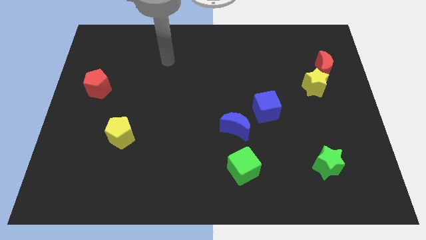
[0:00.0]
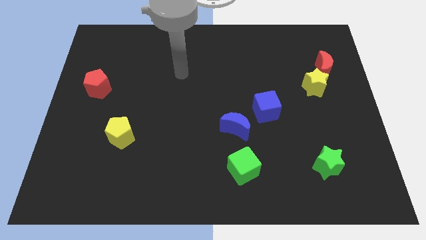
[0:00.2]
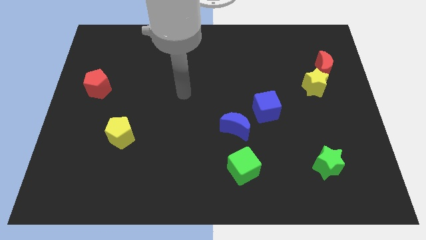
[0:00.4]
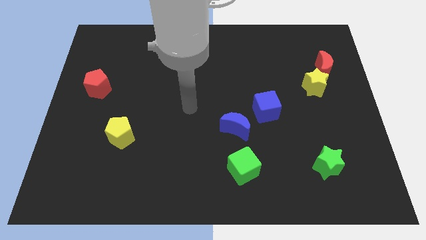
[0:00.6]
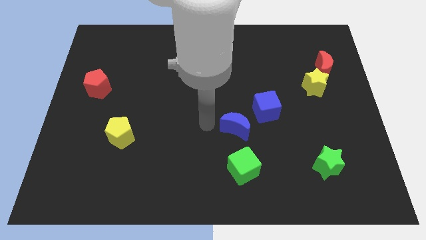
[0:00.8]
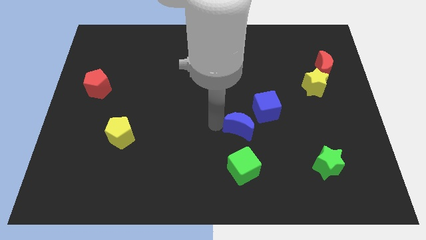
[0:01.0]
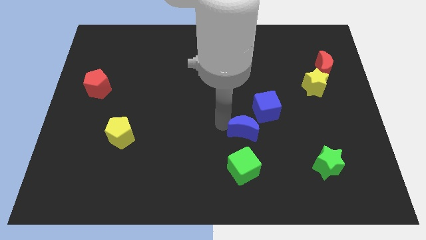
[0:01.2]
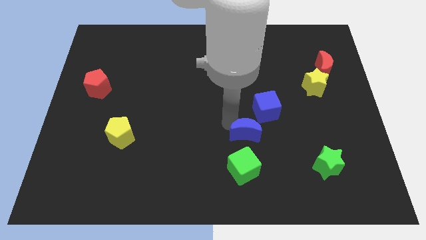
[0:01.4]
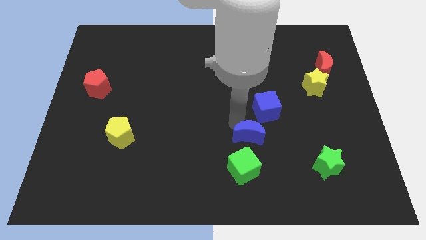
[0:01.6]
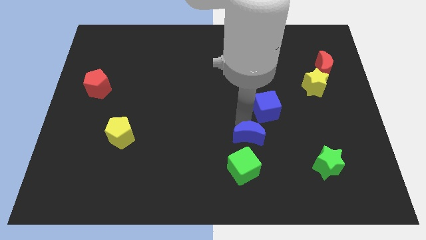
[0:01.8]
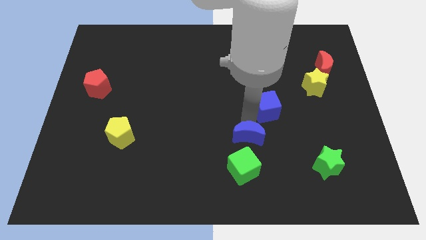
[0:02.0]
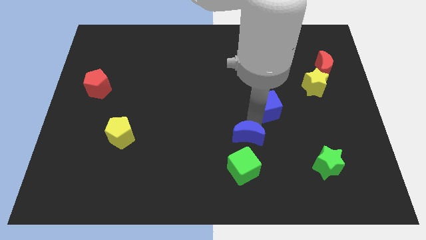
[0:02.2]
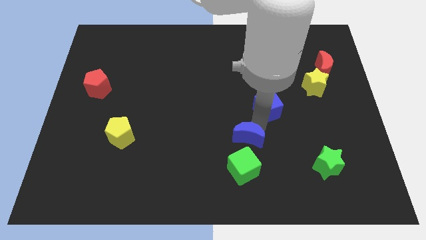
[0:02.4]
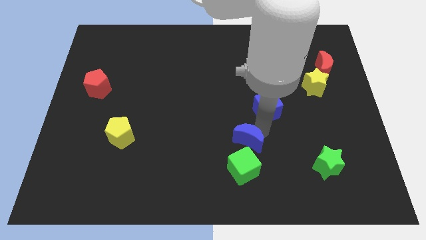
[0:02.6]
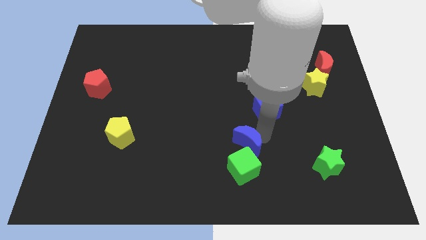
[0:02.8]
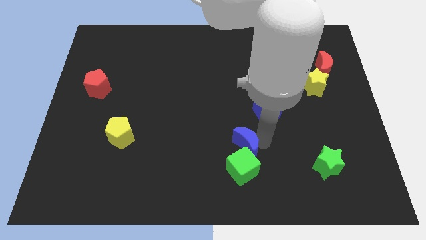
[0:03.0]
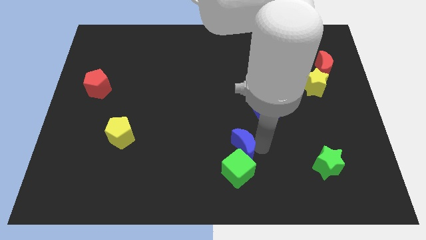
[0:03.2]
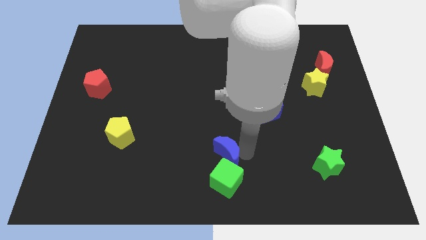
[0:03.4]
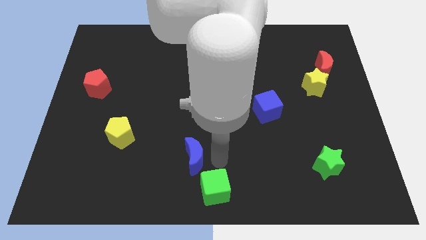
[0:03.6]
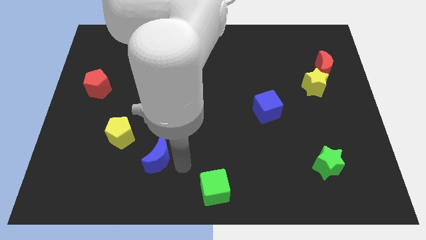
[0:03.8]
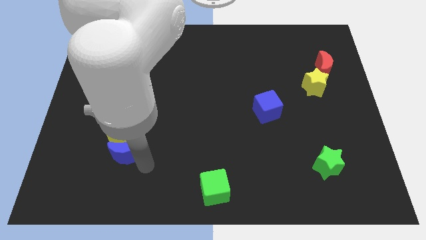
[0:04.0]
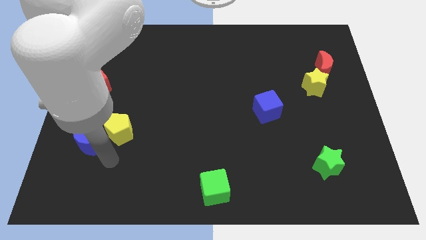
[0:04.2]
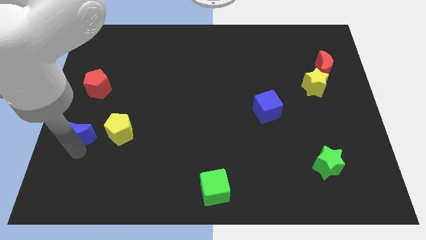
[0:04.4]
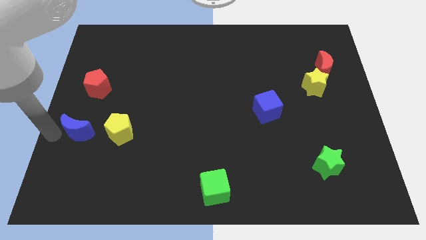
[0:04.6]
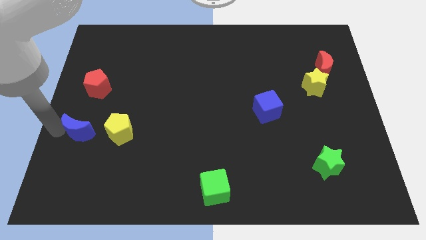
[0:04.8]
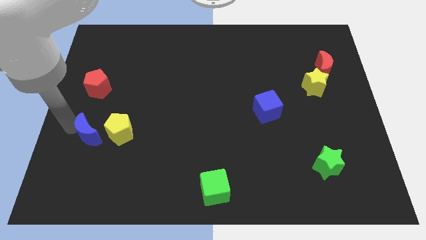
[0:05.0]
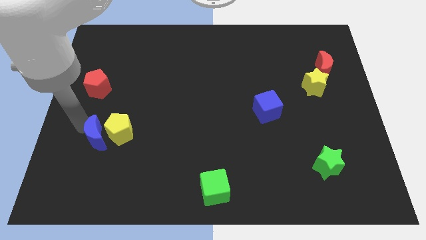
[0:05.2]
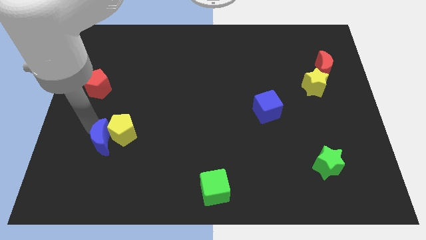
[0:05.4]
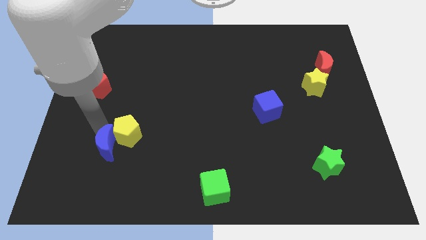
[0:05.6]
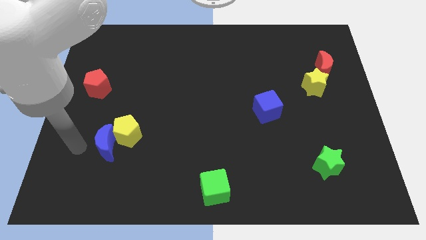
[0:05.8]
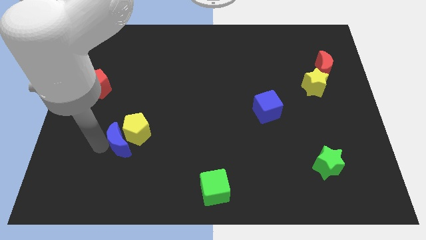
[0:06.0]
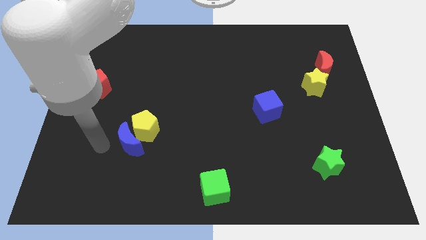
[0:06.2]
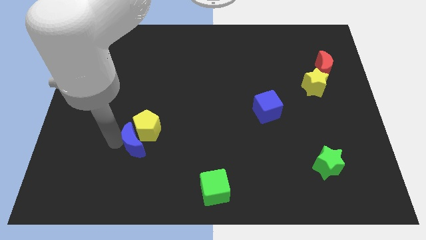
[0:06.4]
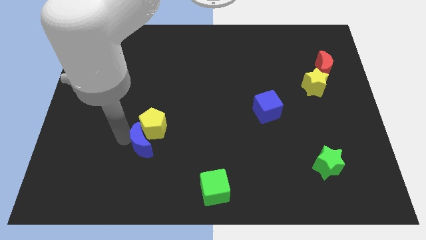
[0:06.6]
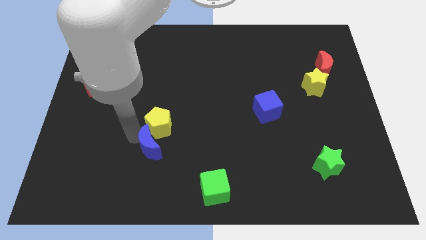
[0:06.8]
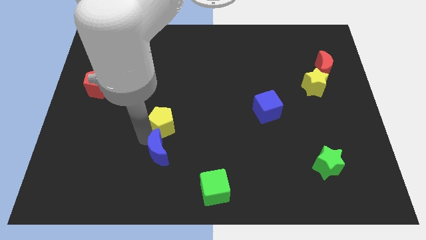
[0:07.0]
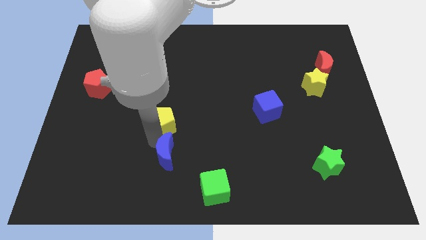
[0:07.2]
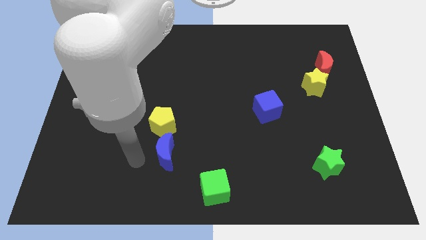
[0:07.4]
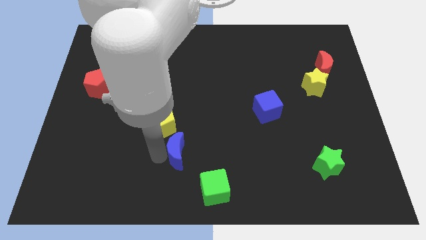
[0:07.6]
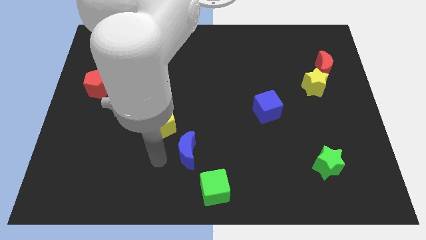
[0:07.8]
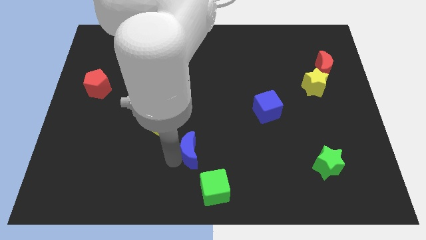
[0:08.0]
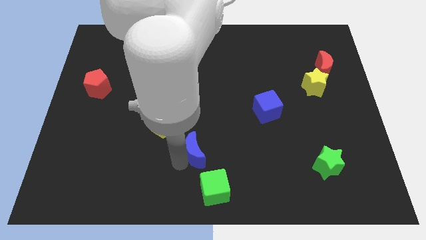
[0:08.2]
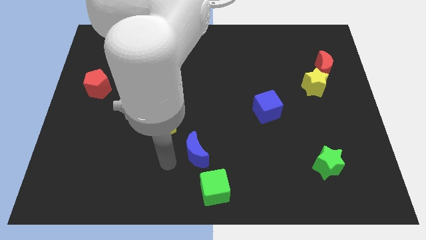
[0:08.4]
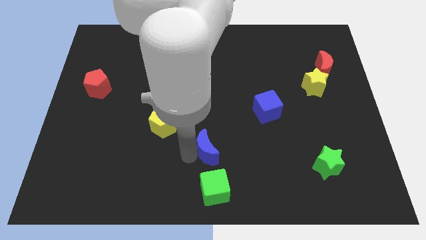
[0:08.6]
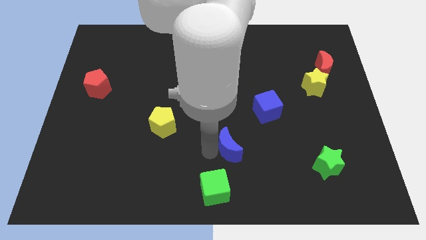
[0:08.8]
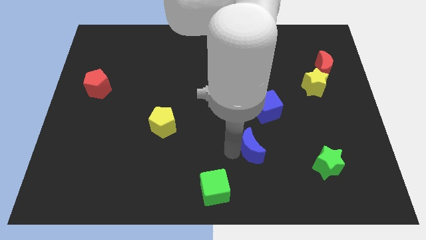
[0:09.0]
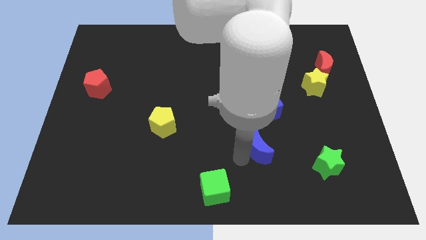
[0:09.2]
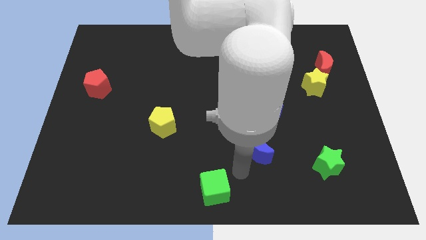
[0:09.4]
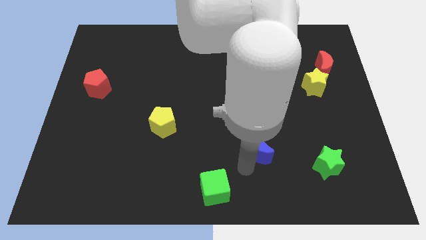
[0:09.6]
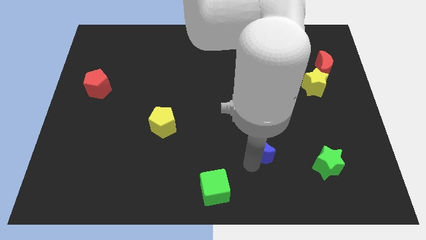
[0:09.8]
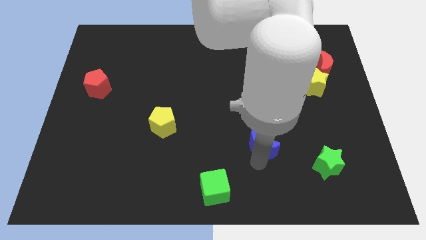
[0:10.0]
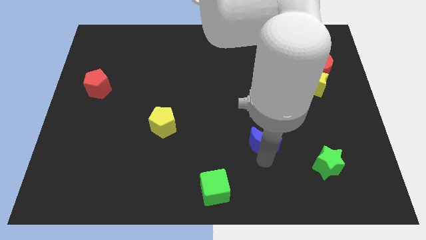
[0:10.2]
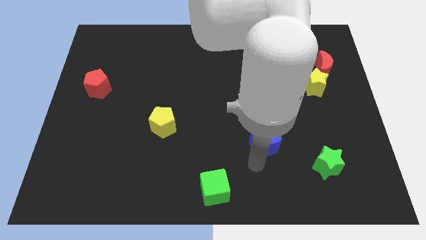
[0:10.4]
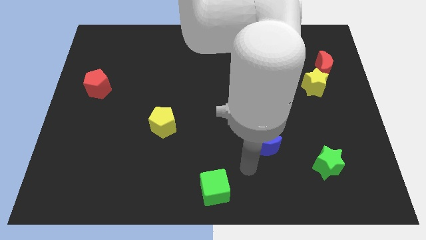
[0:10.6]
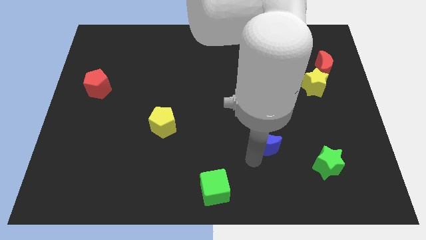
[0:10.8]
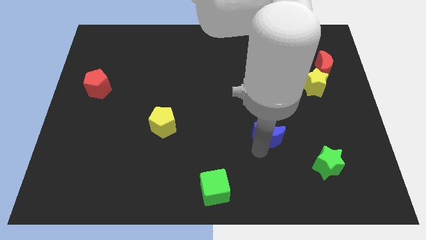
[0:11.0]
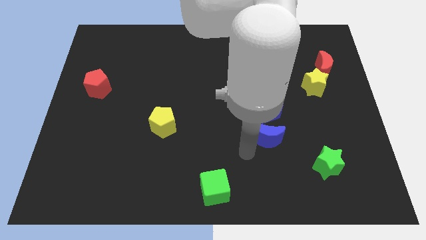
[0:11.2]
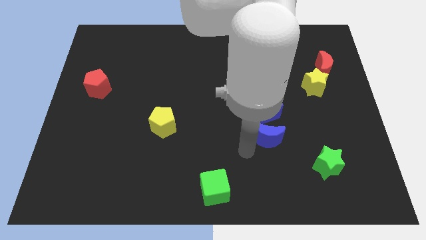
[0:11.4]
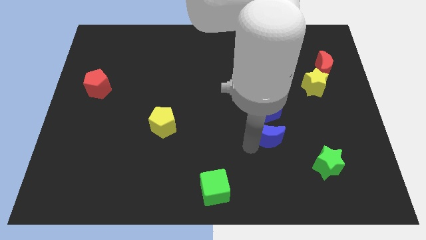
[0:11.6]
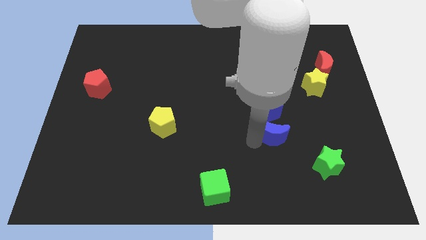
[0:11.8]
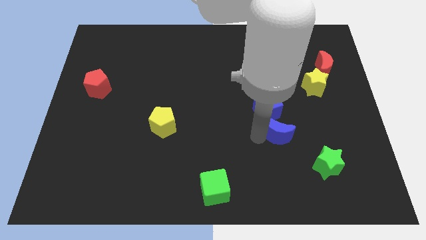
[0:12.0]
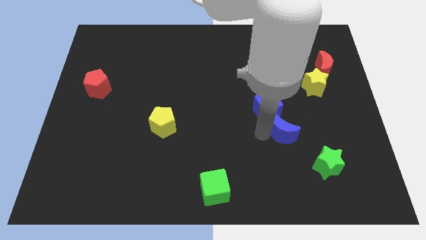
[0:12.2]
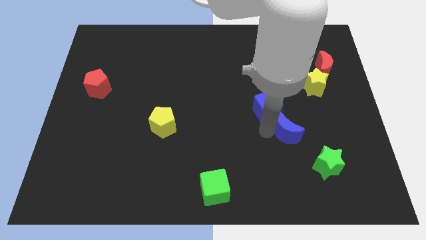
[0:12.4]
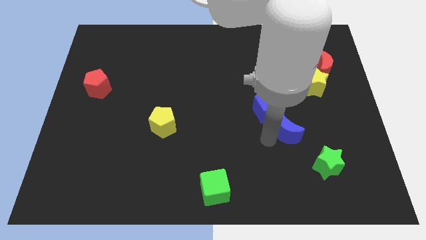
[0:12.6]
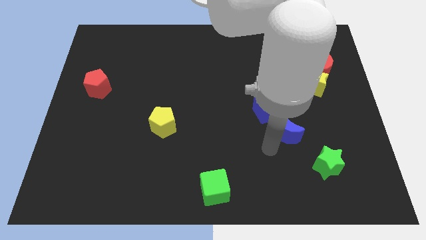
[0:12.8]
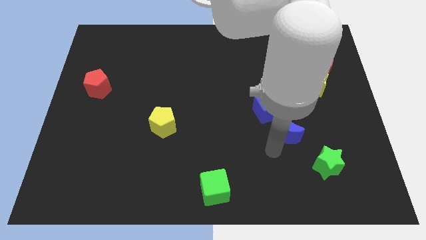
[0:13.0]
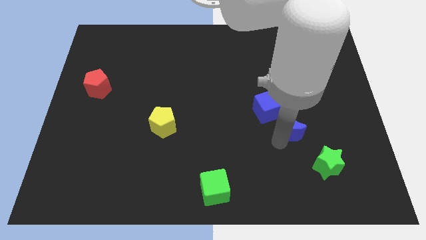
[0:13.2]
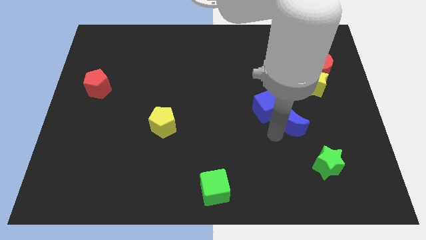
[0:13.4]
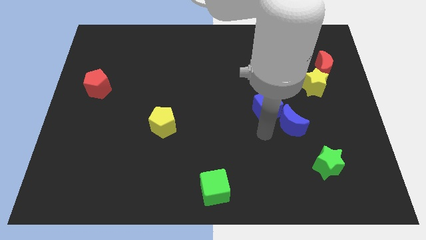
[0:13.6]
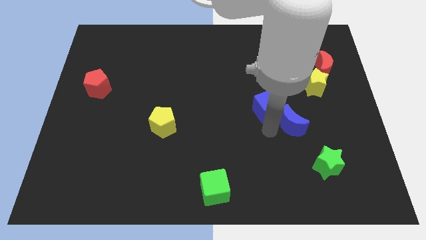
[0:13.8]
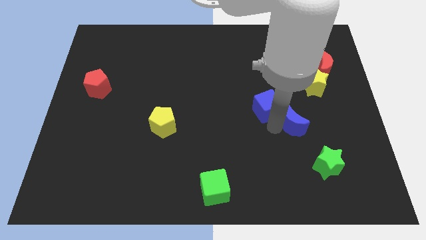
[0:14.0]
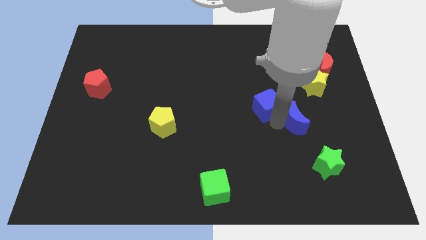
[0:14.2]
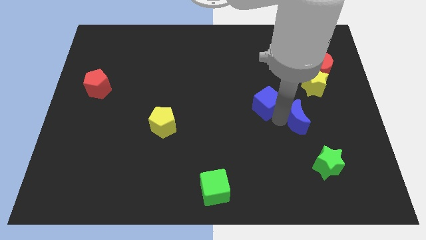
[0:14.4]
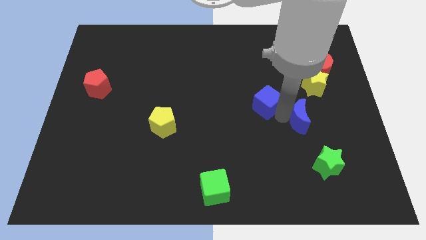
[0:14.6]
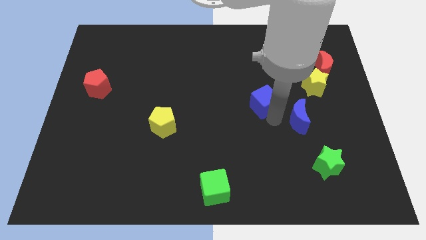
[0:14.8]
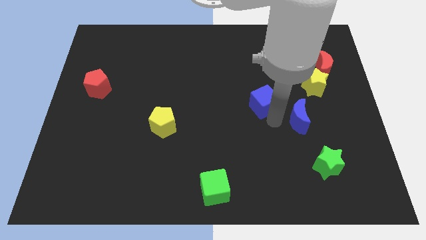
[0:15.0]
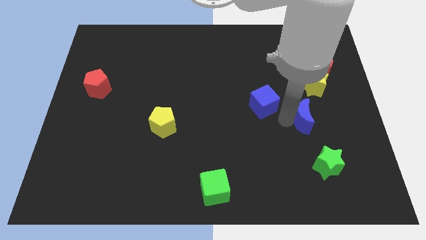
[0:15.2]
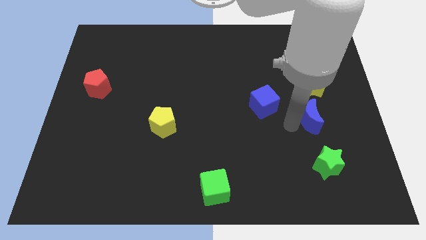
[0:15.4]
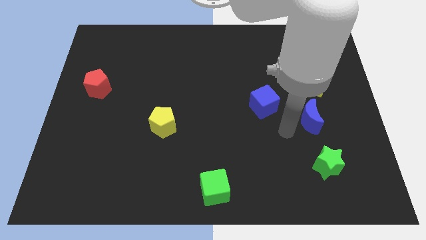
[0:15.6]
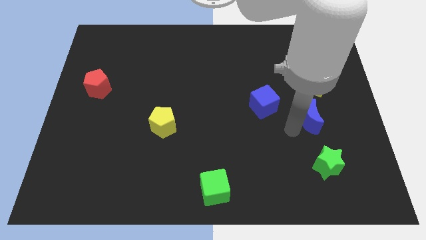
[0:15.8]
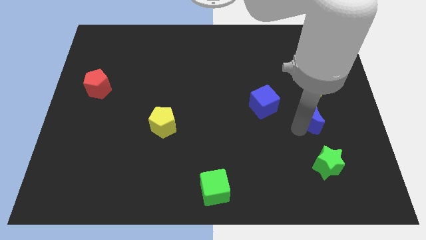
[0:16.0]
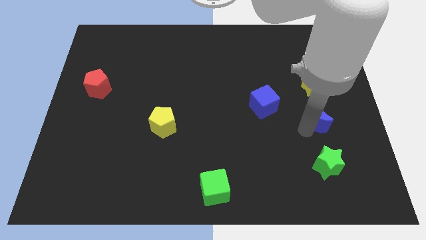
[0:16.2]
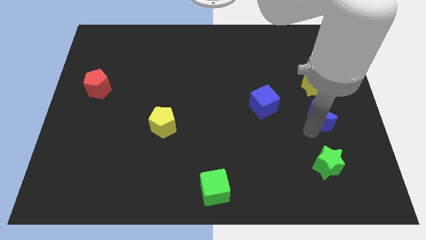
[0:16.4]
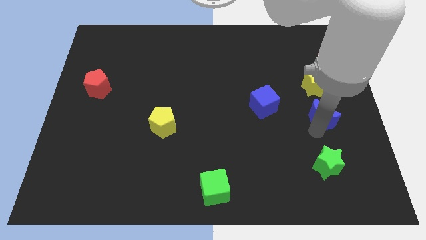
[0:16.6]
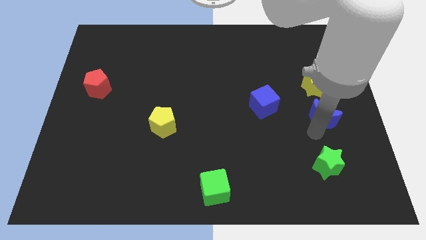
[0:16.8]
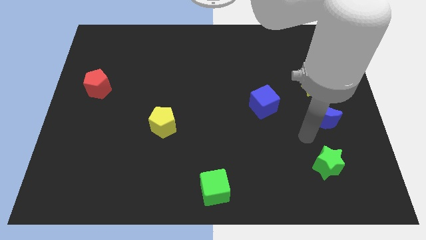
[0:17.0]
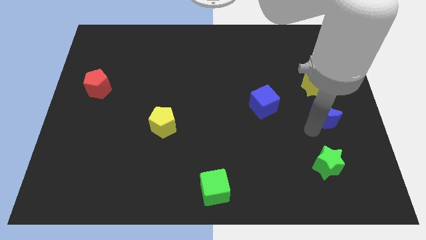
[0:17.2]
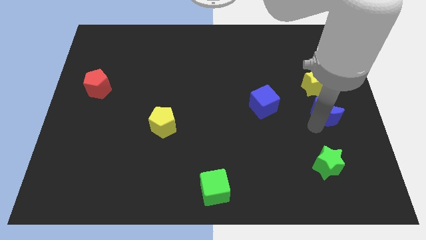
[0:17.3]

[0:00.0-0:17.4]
slide the blue moon to the center right

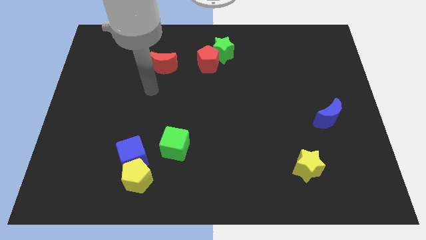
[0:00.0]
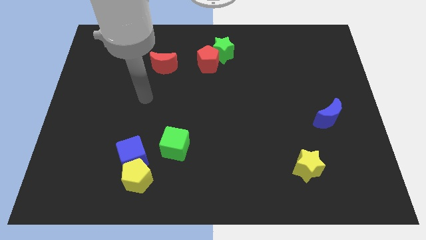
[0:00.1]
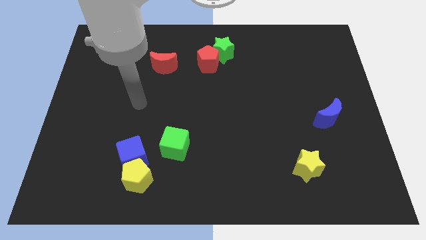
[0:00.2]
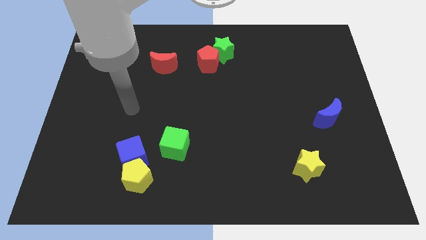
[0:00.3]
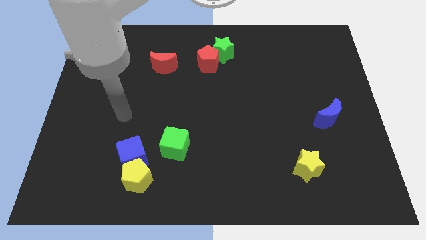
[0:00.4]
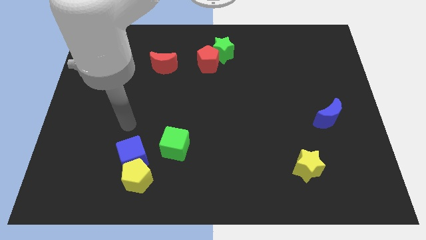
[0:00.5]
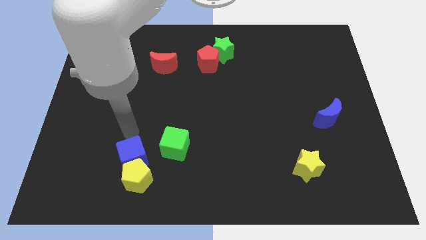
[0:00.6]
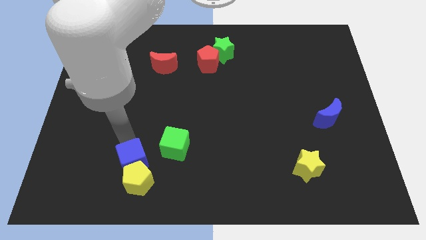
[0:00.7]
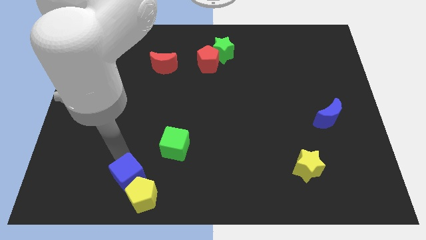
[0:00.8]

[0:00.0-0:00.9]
push the yellow pentagon to the bottom side
